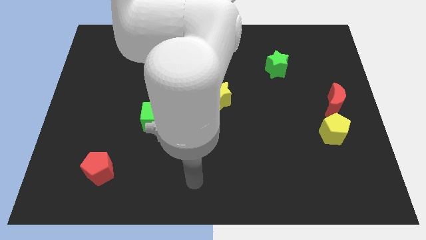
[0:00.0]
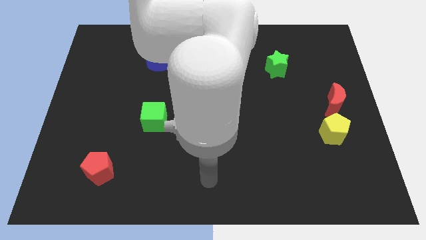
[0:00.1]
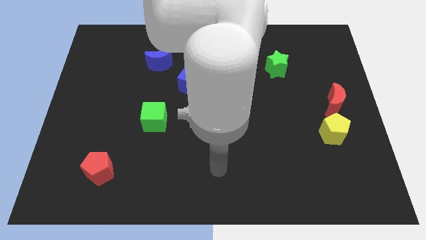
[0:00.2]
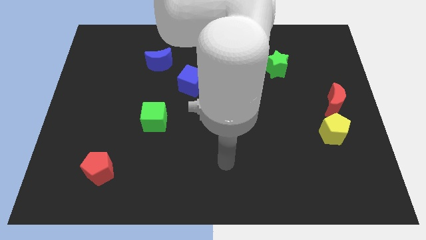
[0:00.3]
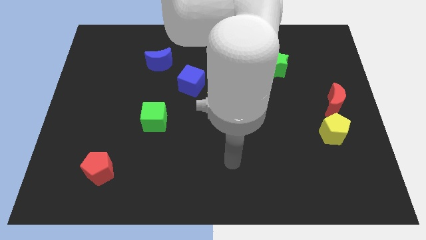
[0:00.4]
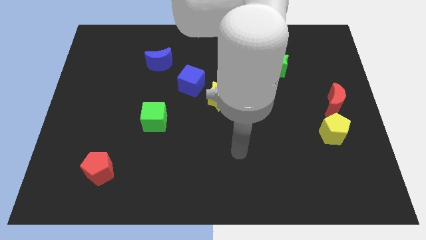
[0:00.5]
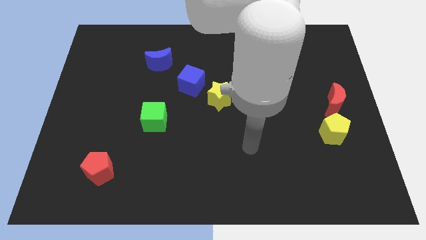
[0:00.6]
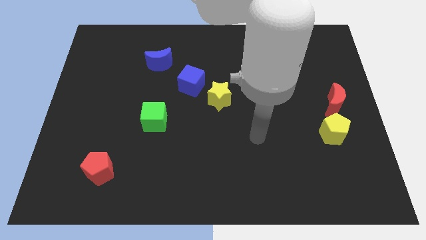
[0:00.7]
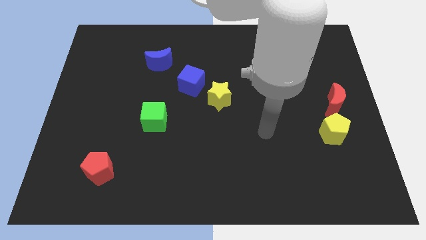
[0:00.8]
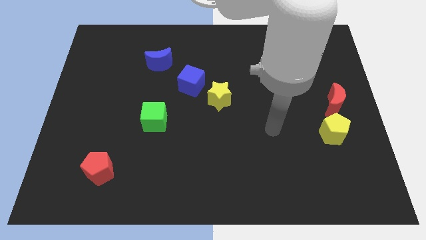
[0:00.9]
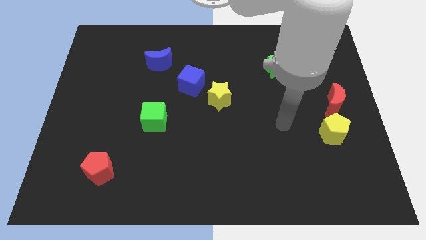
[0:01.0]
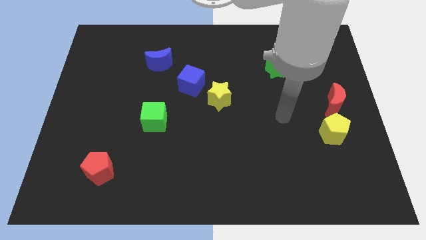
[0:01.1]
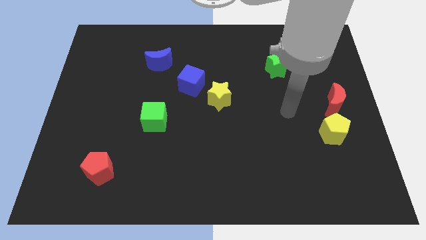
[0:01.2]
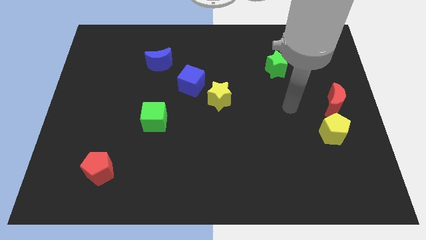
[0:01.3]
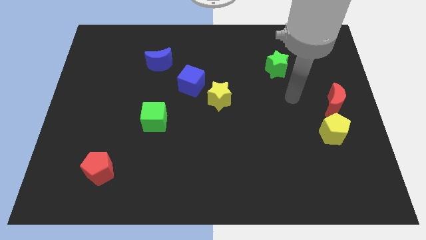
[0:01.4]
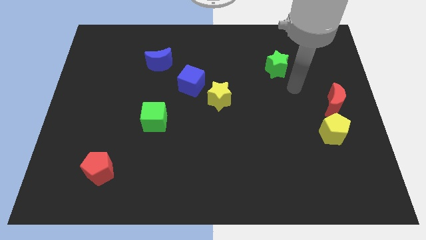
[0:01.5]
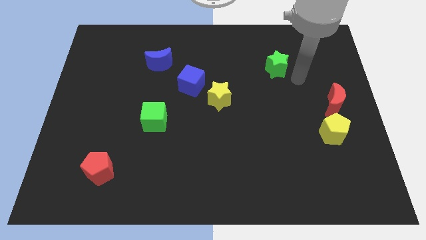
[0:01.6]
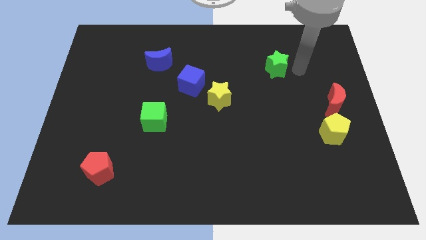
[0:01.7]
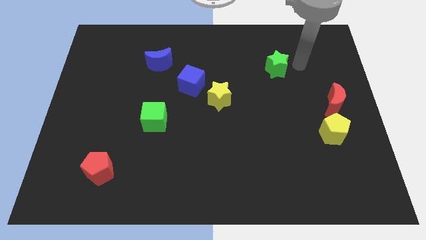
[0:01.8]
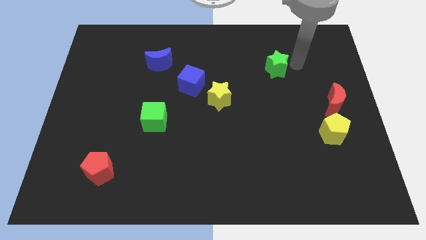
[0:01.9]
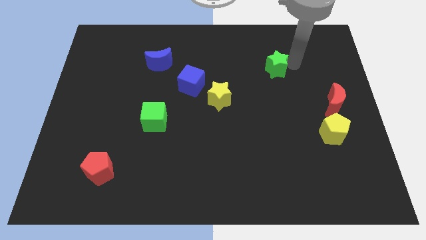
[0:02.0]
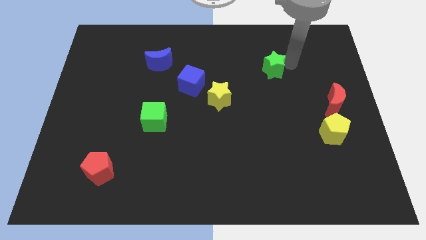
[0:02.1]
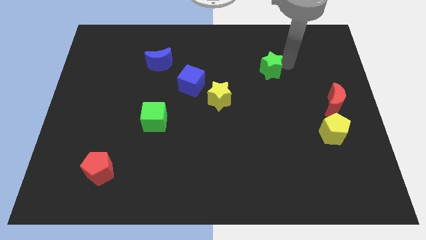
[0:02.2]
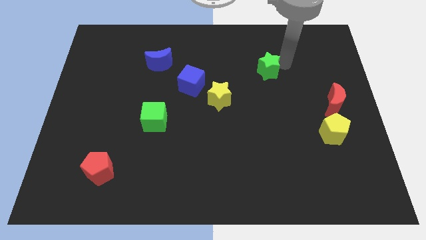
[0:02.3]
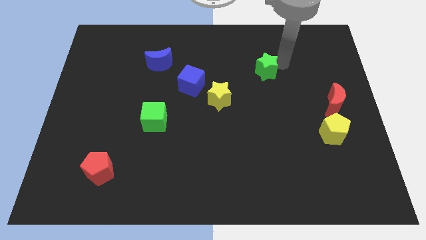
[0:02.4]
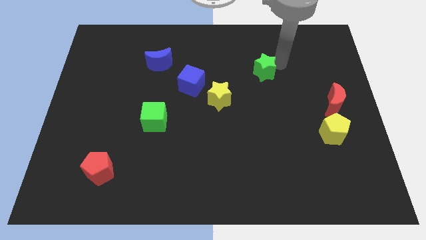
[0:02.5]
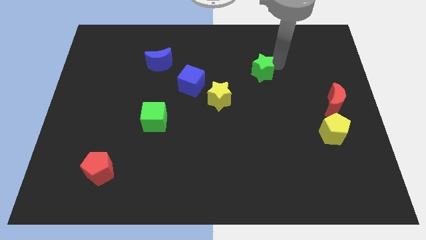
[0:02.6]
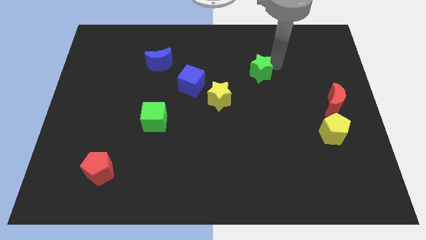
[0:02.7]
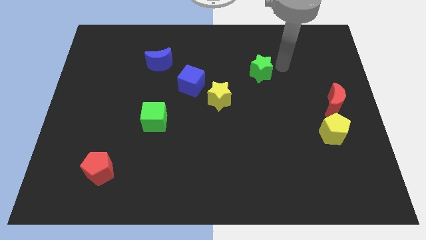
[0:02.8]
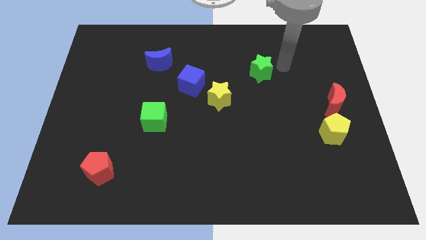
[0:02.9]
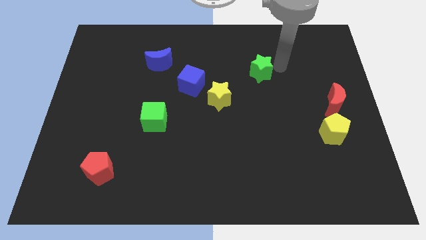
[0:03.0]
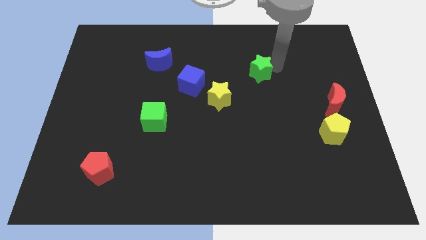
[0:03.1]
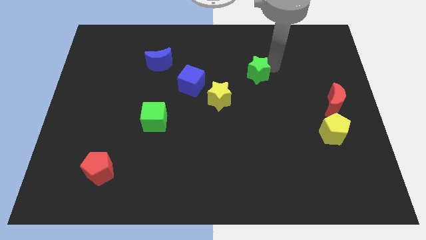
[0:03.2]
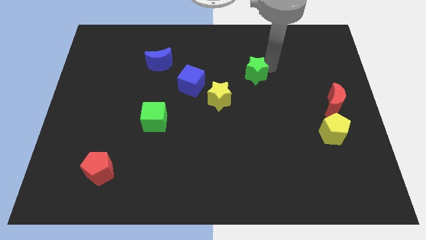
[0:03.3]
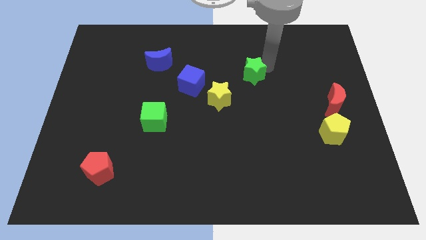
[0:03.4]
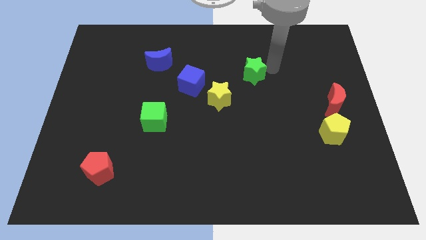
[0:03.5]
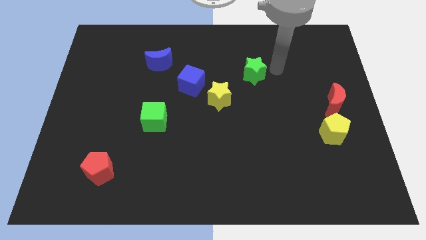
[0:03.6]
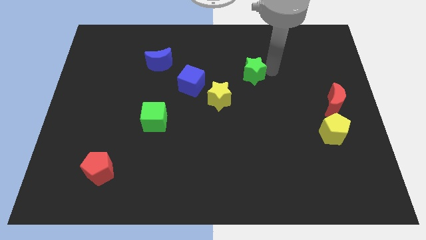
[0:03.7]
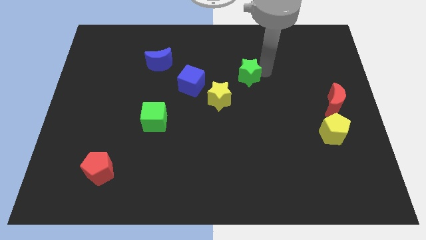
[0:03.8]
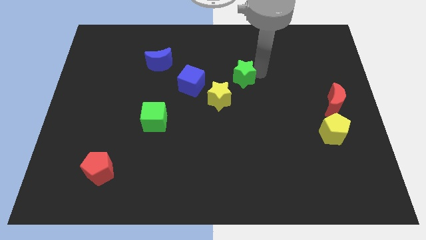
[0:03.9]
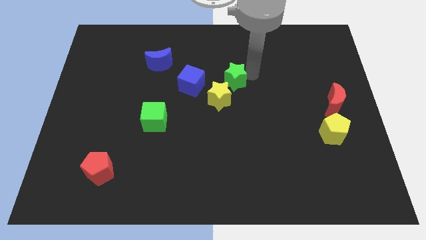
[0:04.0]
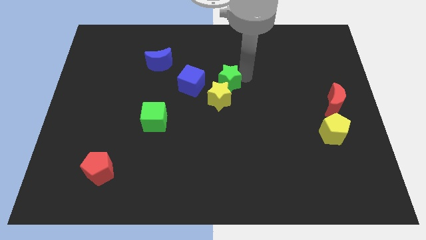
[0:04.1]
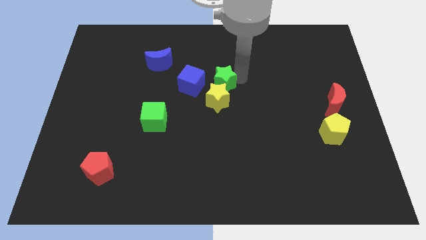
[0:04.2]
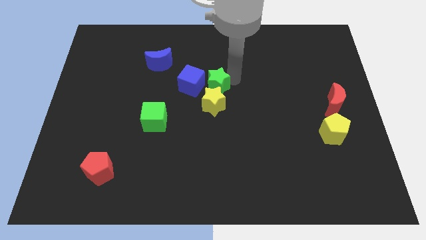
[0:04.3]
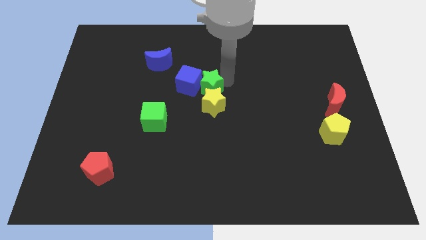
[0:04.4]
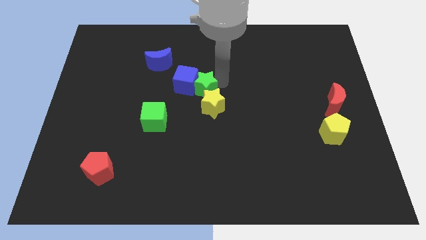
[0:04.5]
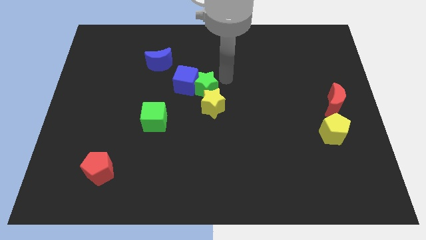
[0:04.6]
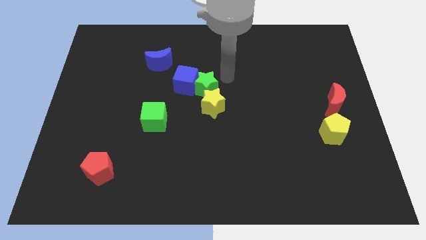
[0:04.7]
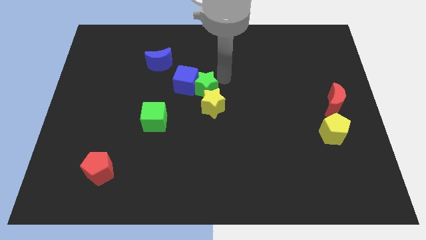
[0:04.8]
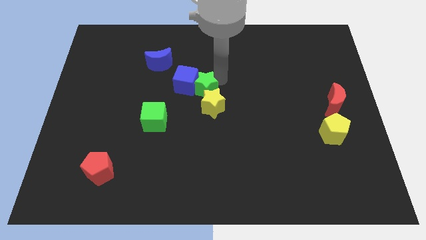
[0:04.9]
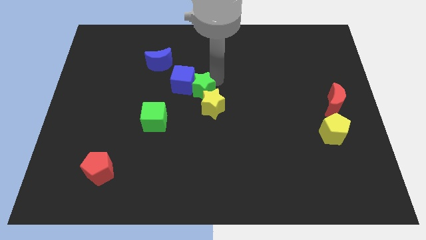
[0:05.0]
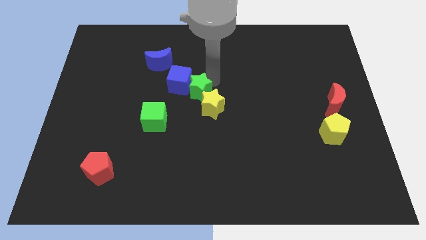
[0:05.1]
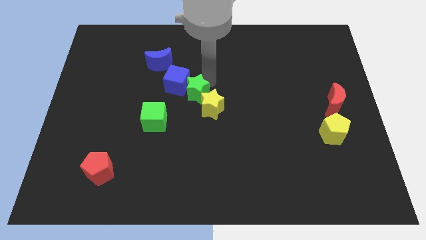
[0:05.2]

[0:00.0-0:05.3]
push the green star just left of the yellow star

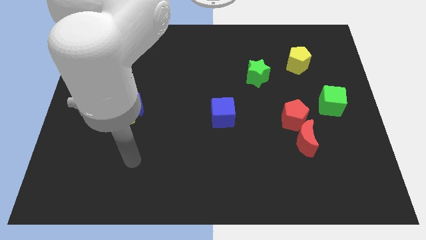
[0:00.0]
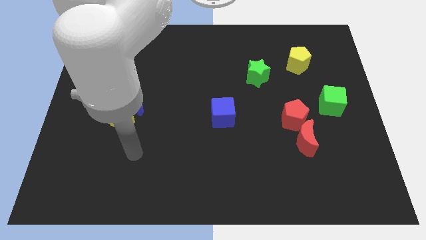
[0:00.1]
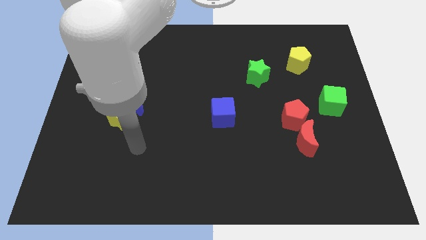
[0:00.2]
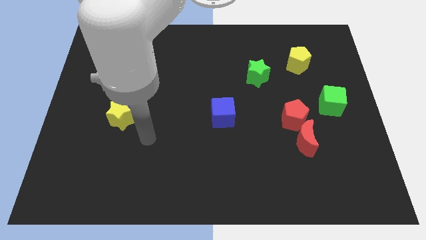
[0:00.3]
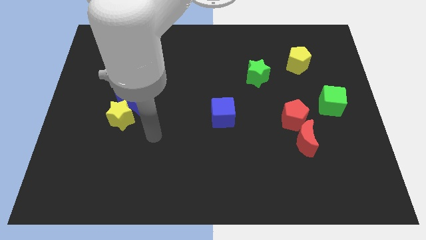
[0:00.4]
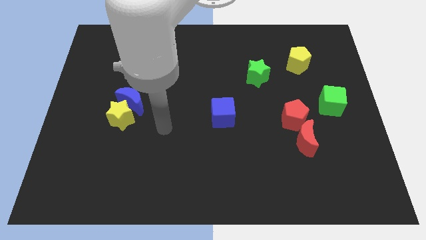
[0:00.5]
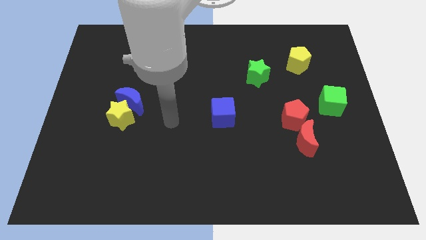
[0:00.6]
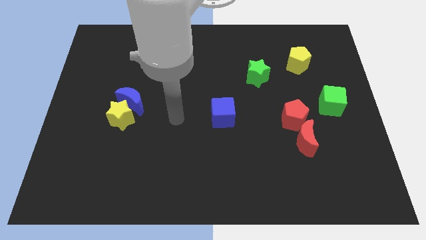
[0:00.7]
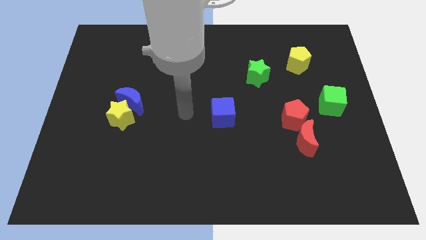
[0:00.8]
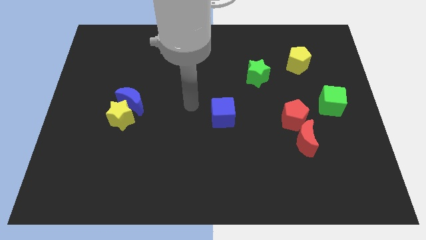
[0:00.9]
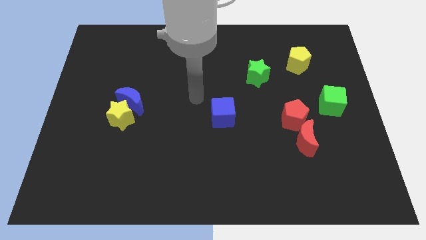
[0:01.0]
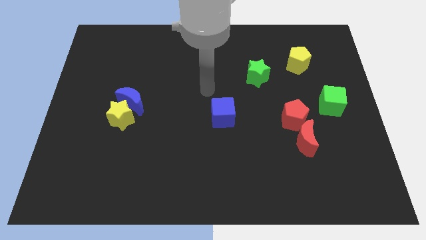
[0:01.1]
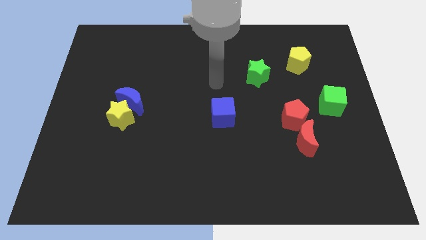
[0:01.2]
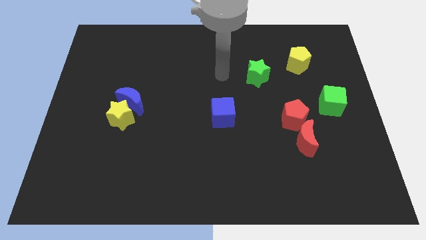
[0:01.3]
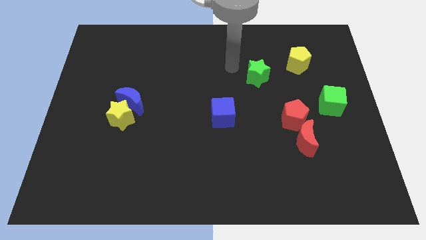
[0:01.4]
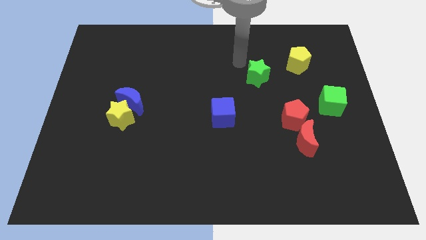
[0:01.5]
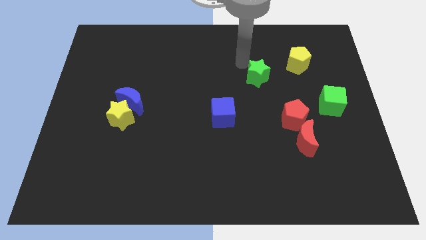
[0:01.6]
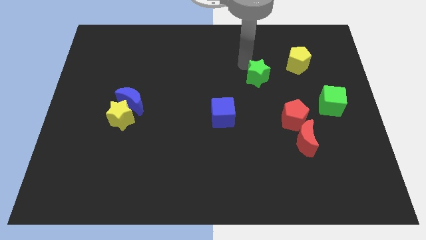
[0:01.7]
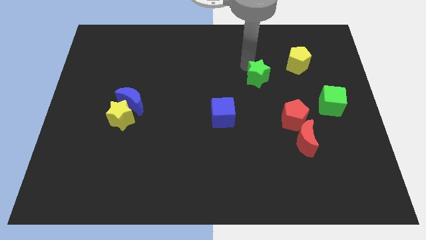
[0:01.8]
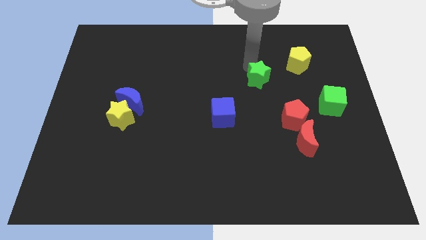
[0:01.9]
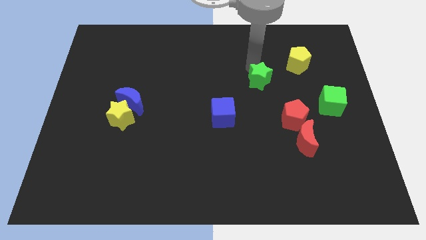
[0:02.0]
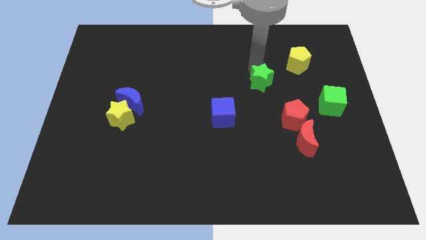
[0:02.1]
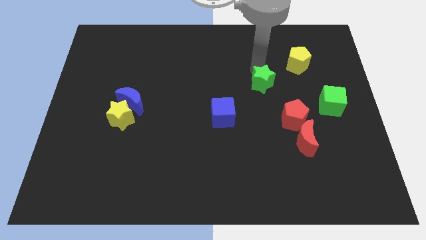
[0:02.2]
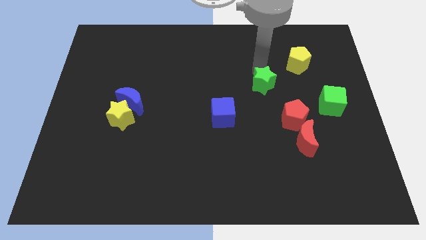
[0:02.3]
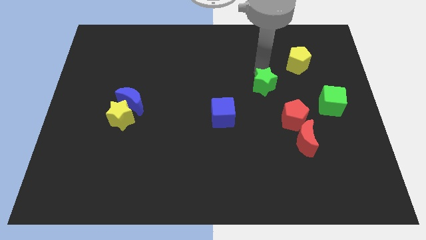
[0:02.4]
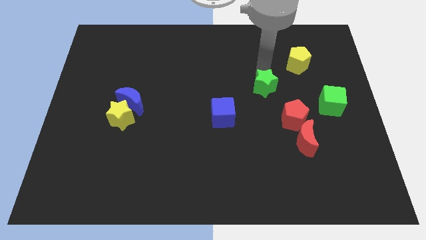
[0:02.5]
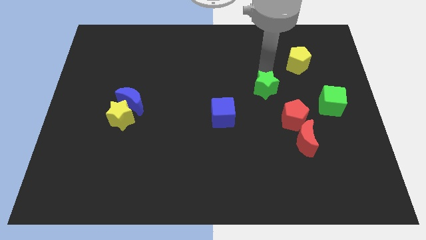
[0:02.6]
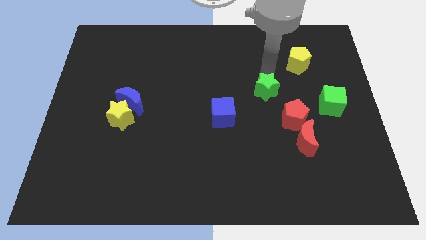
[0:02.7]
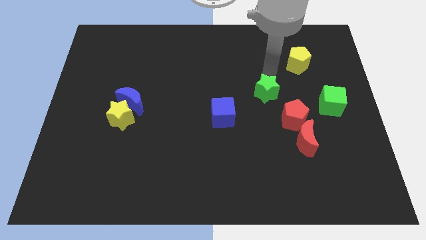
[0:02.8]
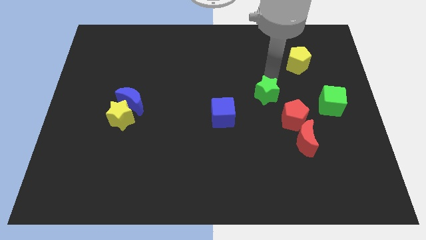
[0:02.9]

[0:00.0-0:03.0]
put the green star just left of the green cube
